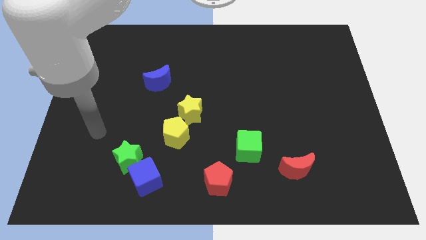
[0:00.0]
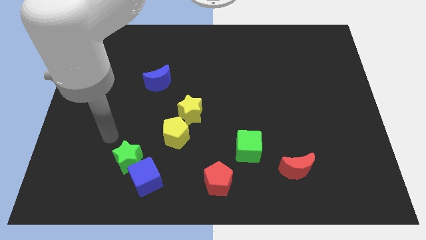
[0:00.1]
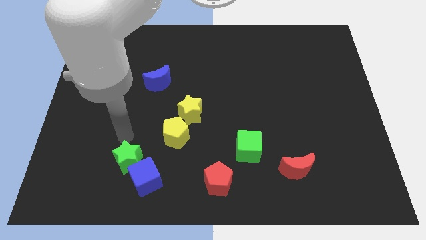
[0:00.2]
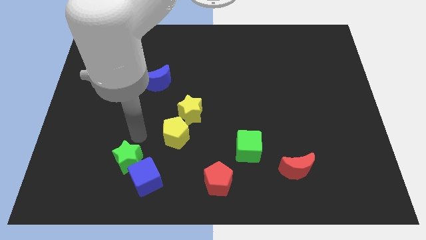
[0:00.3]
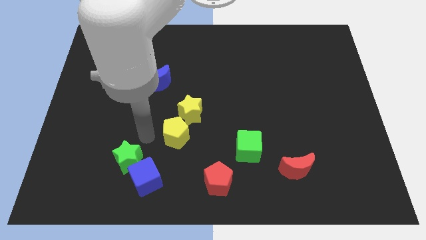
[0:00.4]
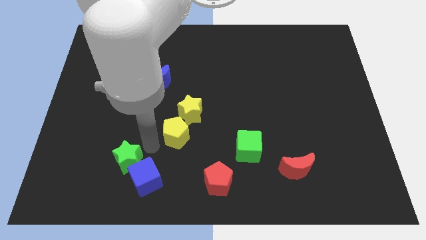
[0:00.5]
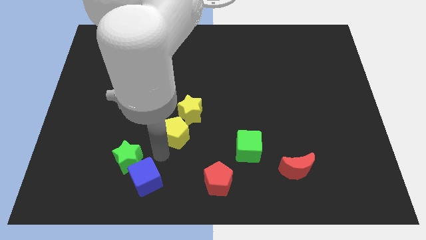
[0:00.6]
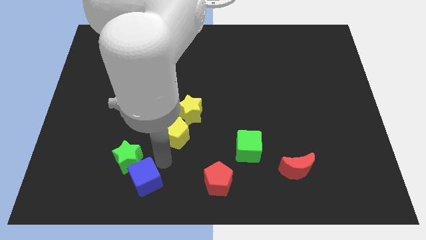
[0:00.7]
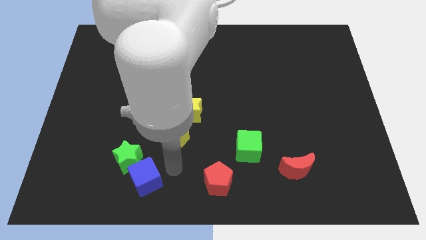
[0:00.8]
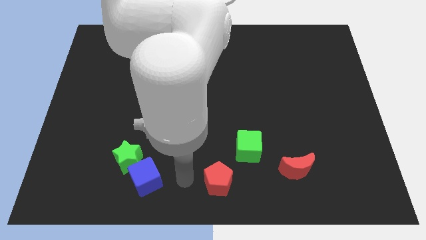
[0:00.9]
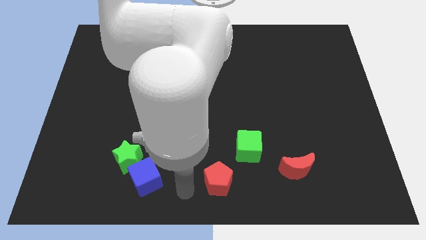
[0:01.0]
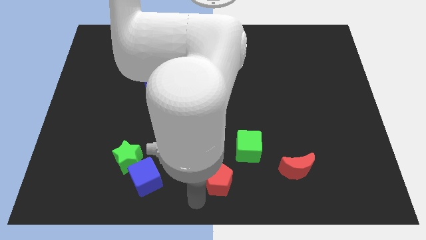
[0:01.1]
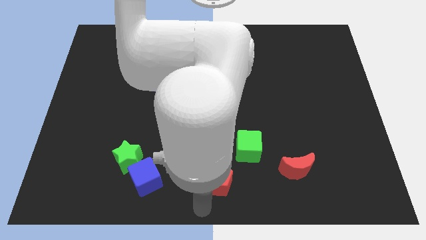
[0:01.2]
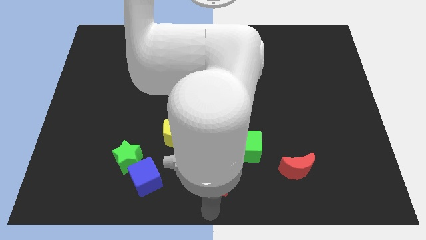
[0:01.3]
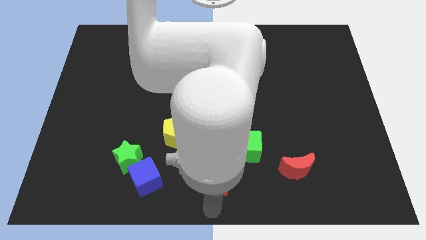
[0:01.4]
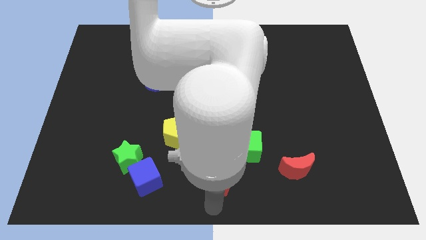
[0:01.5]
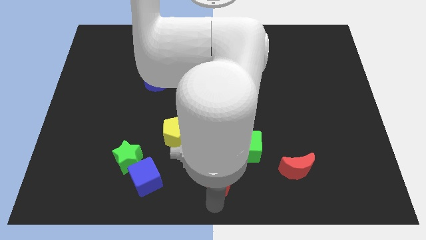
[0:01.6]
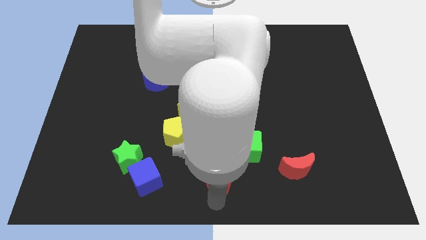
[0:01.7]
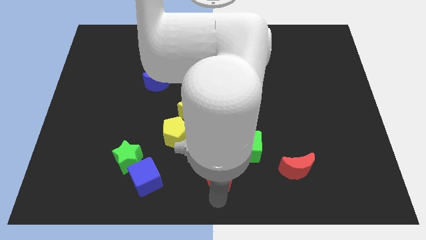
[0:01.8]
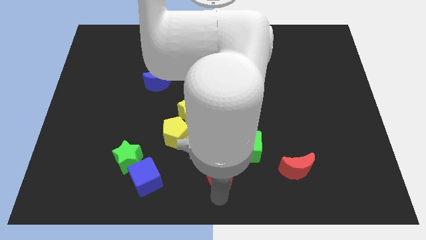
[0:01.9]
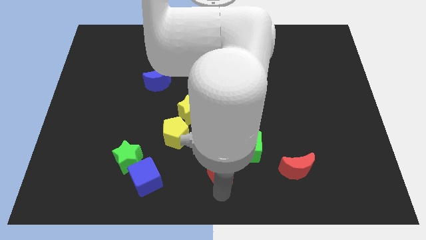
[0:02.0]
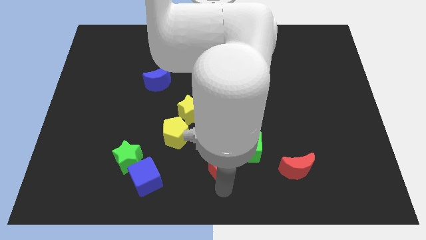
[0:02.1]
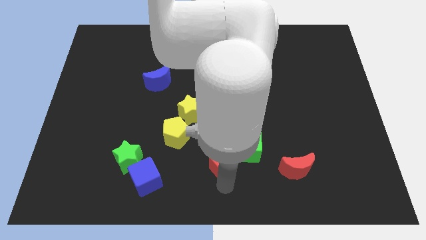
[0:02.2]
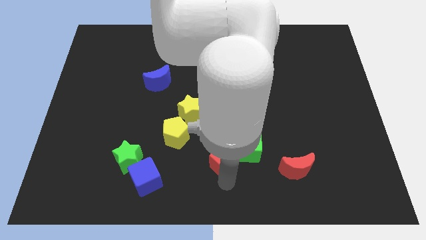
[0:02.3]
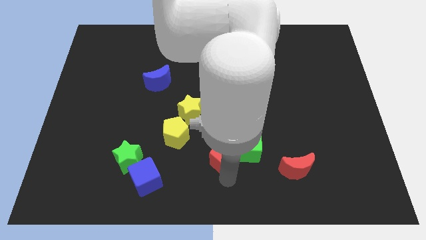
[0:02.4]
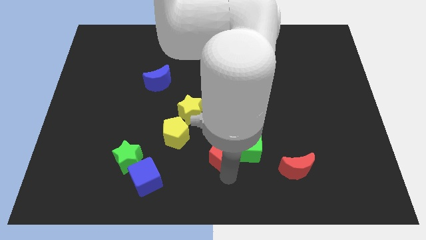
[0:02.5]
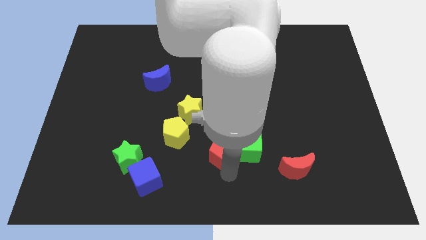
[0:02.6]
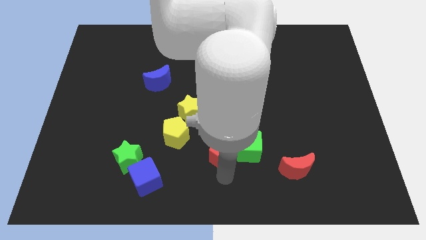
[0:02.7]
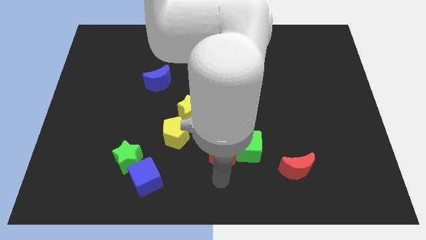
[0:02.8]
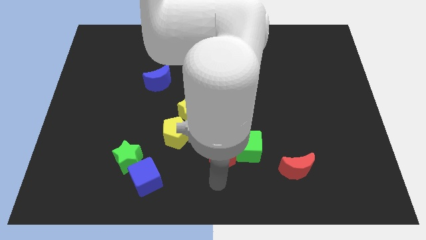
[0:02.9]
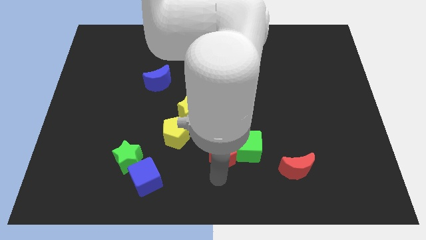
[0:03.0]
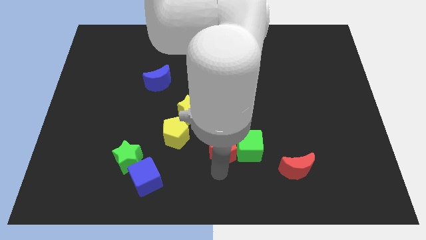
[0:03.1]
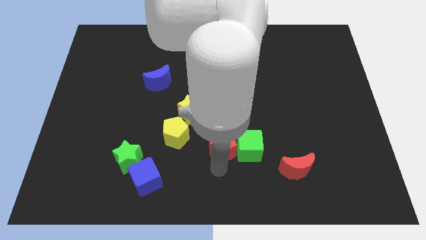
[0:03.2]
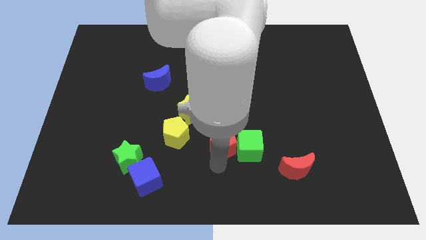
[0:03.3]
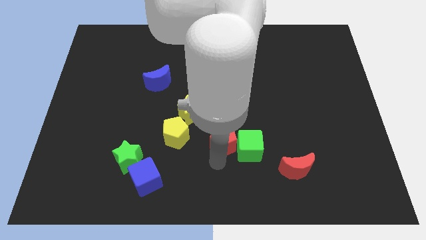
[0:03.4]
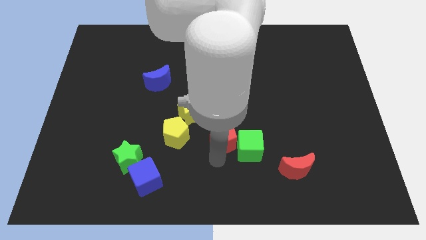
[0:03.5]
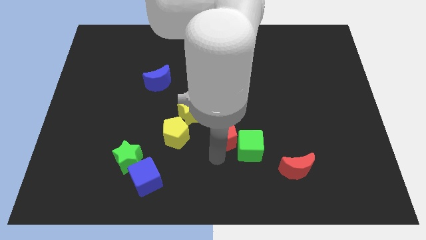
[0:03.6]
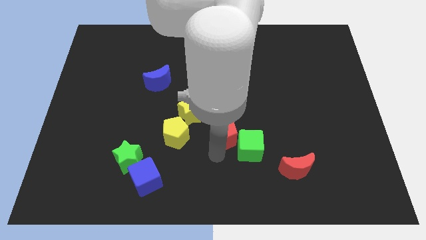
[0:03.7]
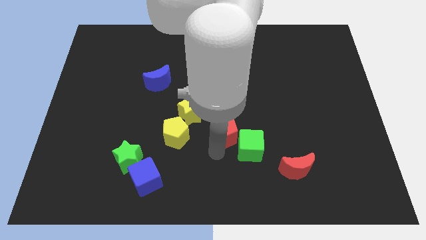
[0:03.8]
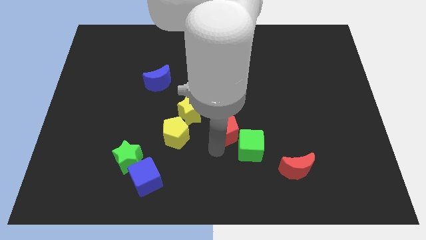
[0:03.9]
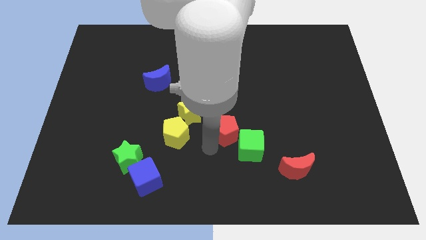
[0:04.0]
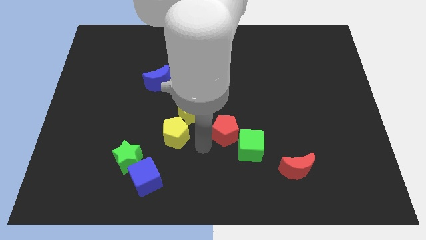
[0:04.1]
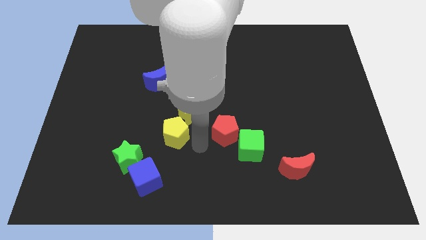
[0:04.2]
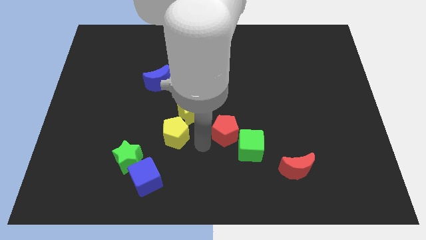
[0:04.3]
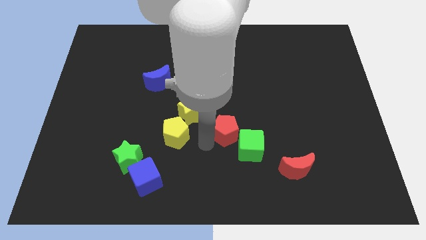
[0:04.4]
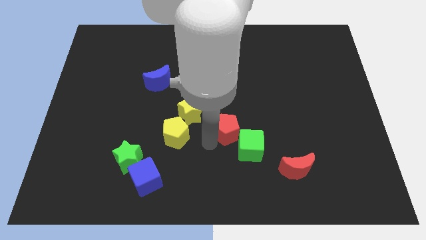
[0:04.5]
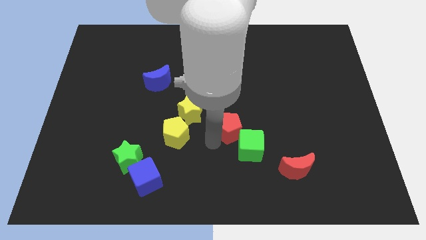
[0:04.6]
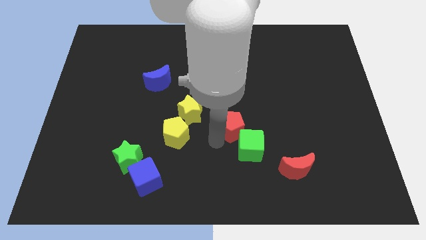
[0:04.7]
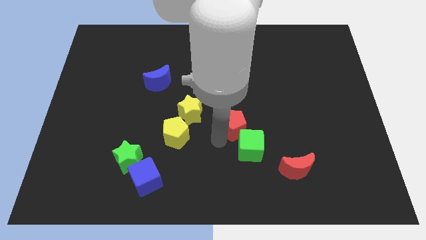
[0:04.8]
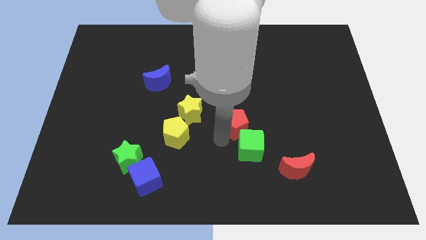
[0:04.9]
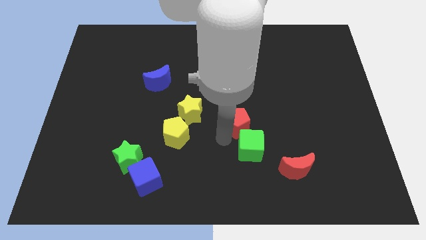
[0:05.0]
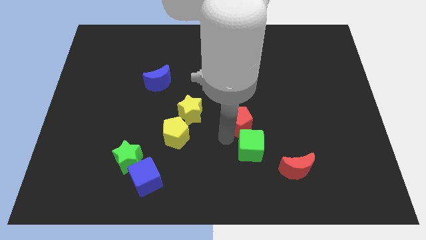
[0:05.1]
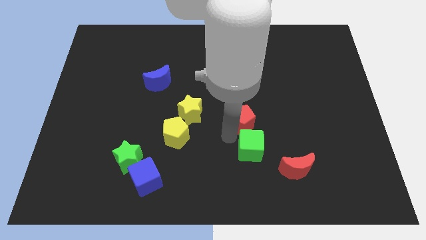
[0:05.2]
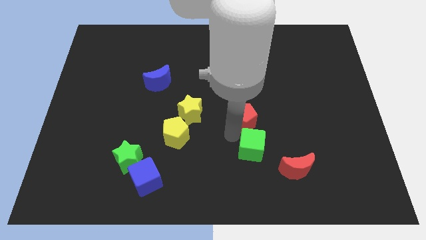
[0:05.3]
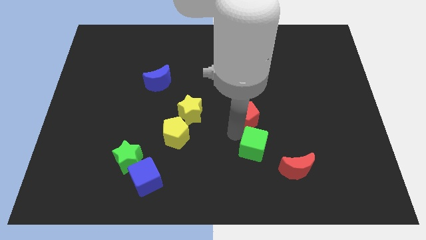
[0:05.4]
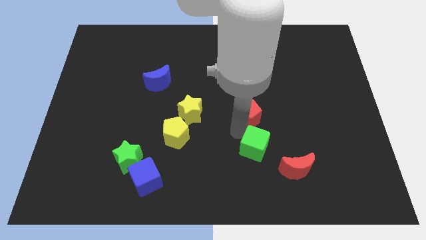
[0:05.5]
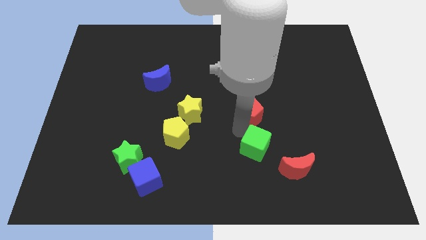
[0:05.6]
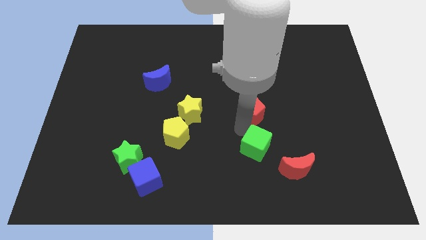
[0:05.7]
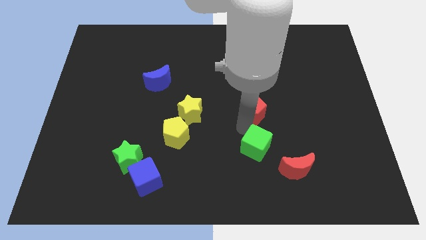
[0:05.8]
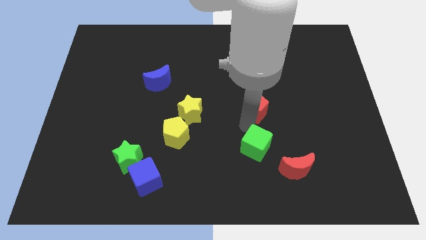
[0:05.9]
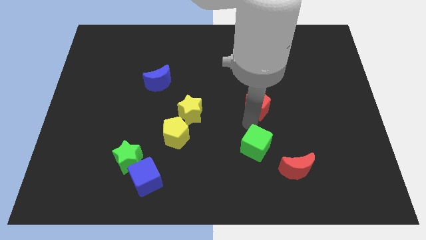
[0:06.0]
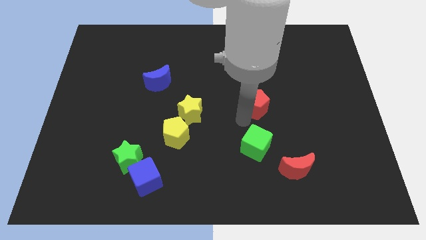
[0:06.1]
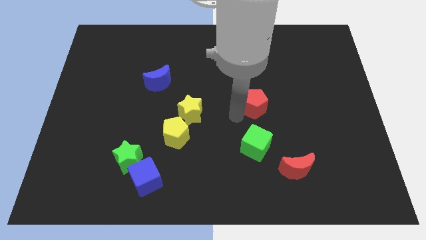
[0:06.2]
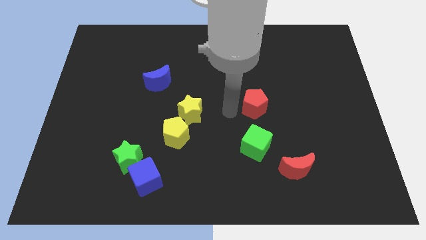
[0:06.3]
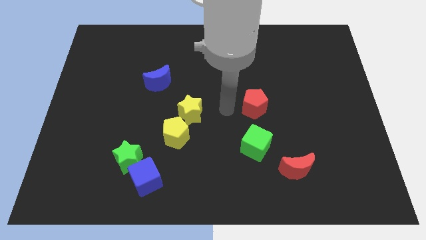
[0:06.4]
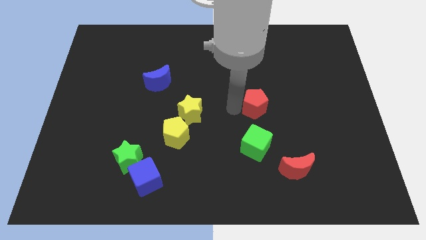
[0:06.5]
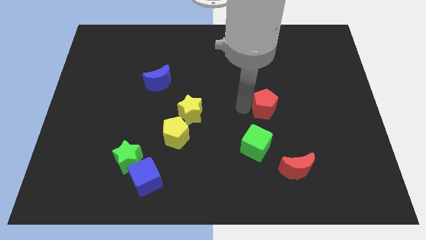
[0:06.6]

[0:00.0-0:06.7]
move the red pentagon up and to the right

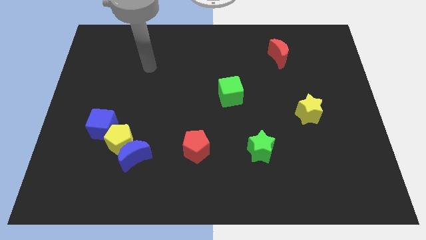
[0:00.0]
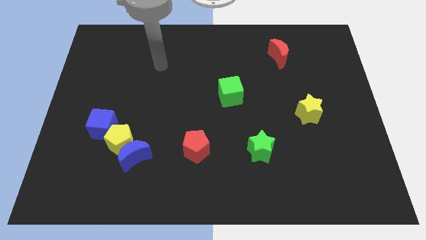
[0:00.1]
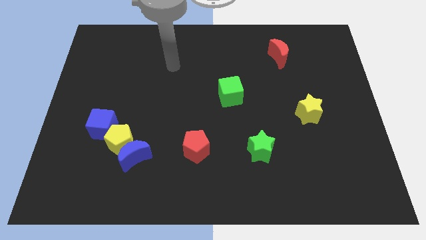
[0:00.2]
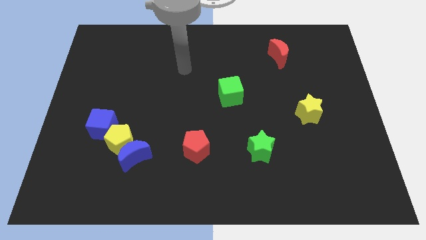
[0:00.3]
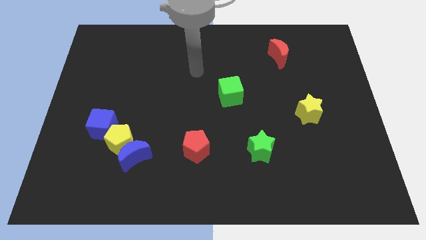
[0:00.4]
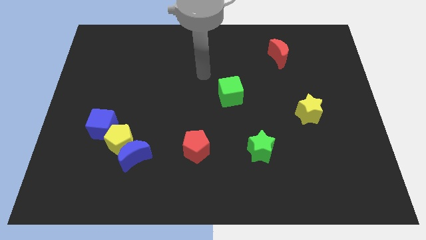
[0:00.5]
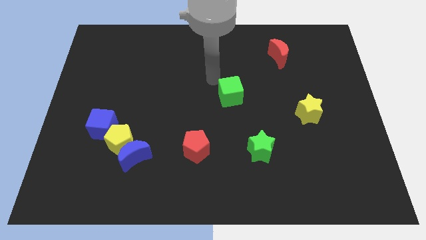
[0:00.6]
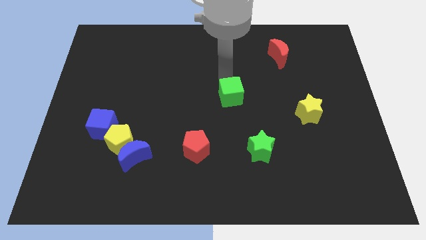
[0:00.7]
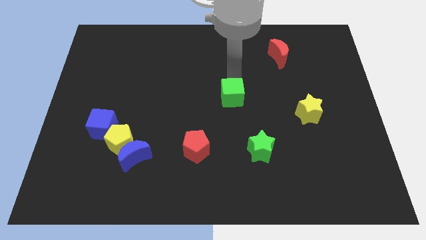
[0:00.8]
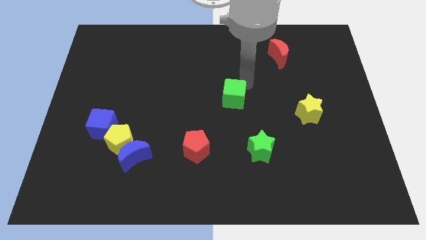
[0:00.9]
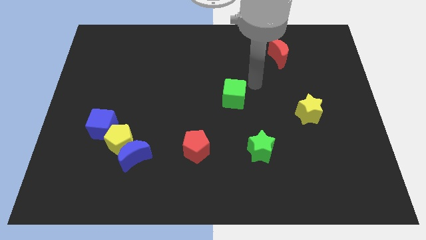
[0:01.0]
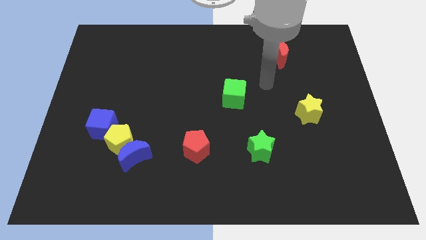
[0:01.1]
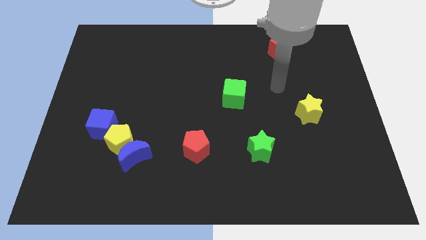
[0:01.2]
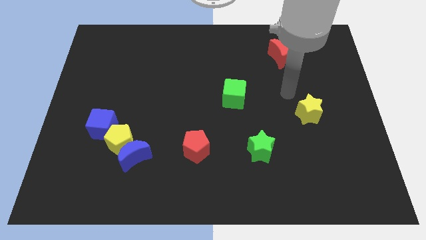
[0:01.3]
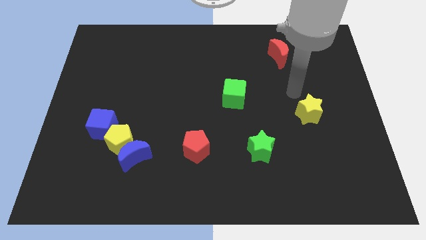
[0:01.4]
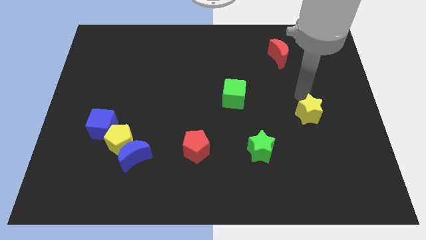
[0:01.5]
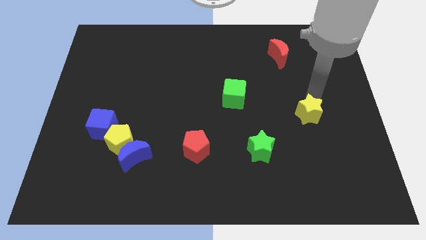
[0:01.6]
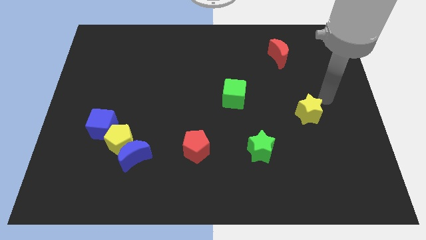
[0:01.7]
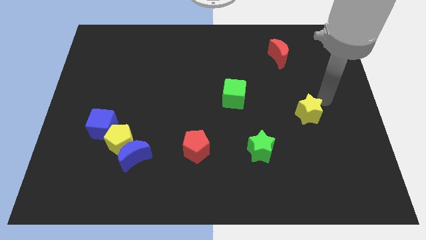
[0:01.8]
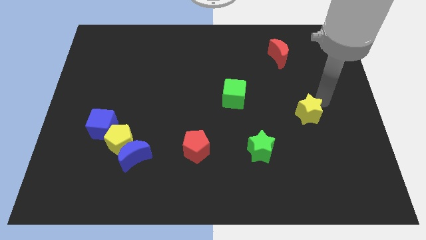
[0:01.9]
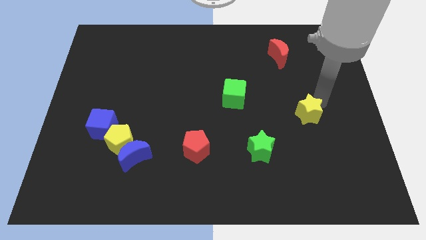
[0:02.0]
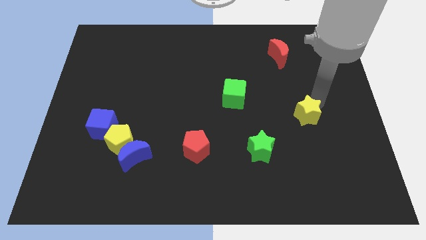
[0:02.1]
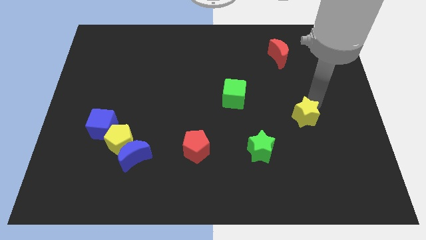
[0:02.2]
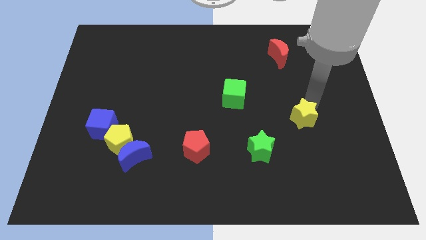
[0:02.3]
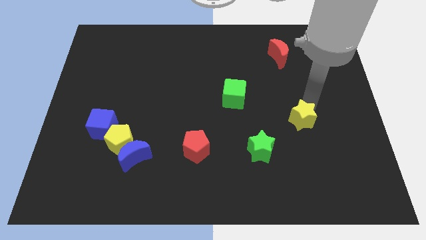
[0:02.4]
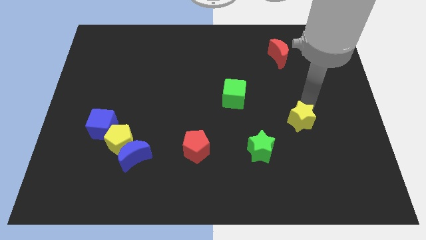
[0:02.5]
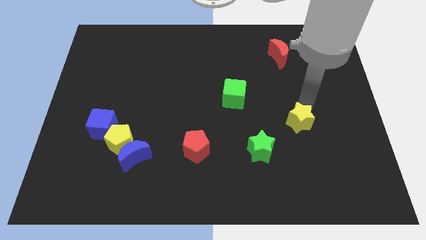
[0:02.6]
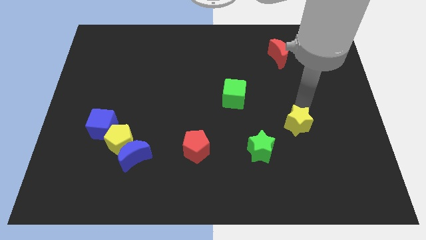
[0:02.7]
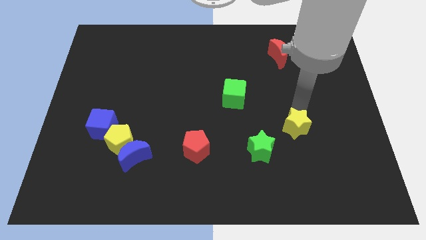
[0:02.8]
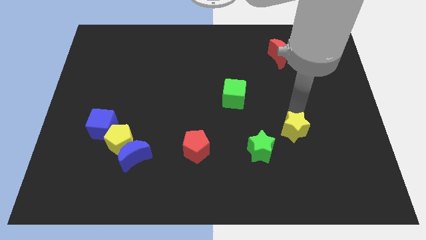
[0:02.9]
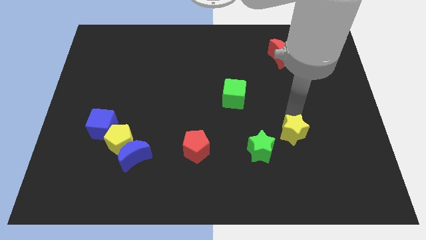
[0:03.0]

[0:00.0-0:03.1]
slide the yellow star a little downwards and to the left
